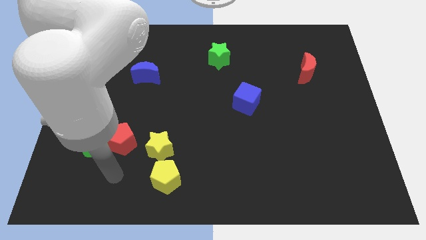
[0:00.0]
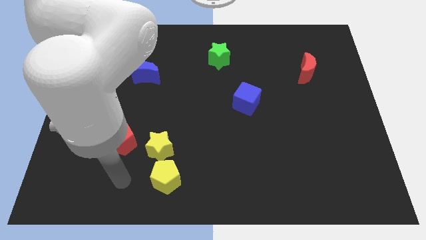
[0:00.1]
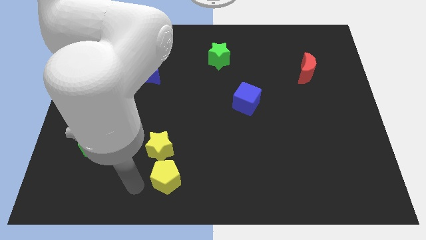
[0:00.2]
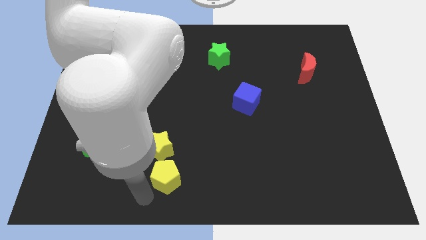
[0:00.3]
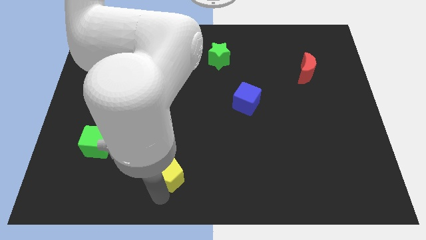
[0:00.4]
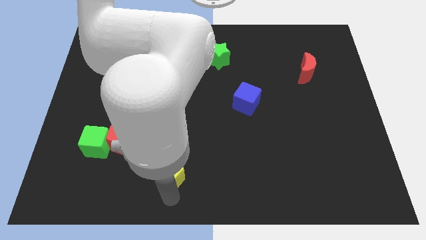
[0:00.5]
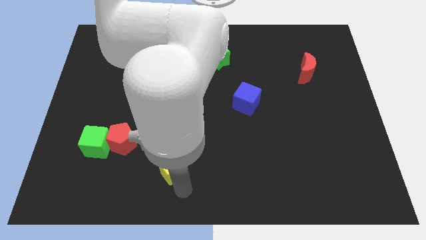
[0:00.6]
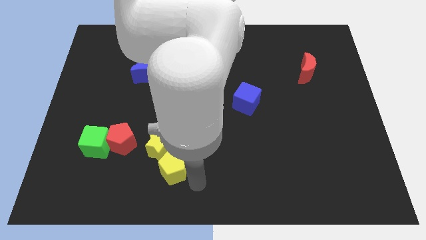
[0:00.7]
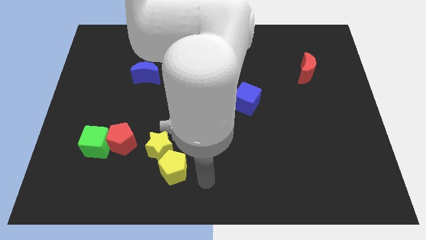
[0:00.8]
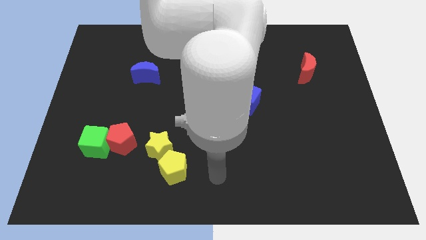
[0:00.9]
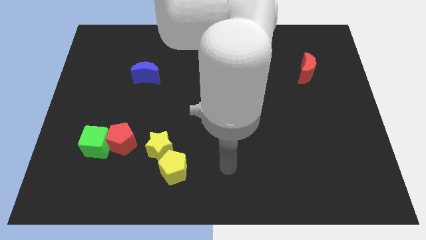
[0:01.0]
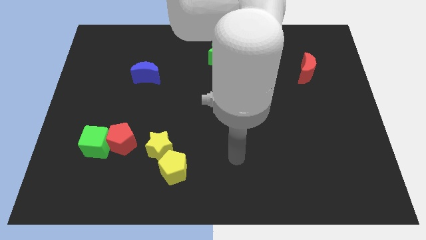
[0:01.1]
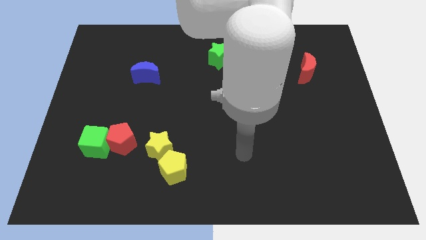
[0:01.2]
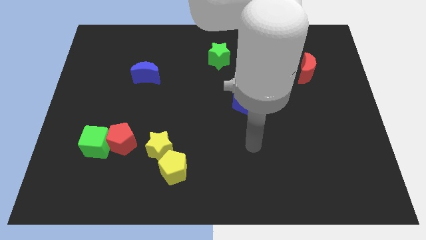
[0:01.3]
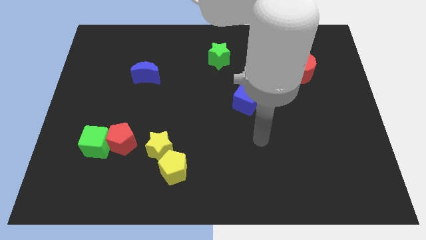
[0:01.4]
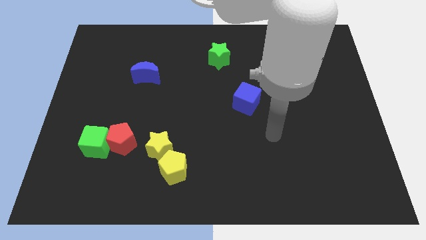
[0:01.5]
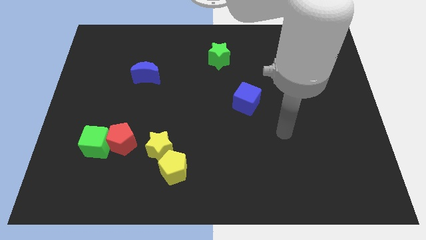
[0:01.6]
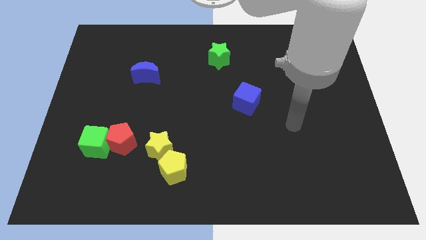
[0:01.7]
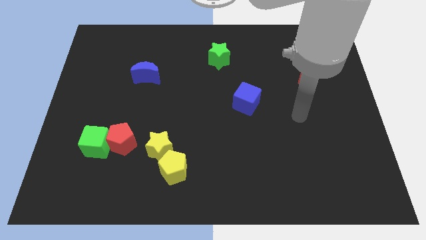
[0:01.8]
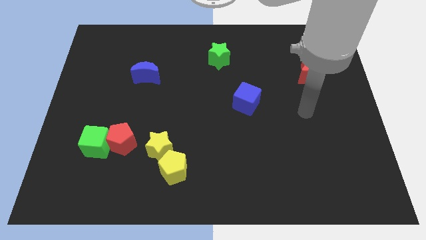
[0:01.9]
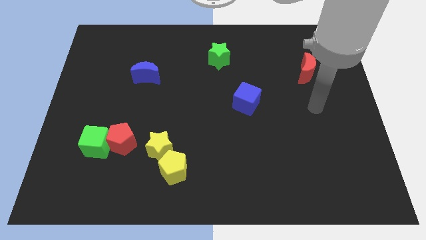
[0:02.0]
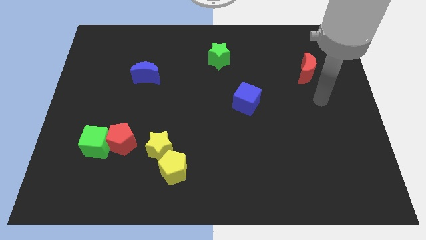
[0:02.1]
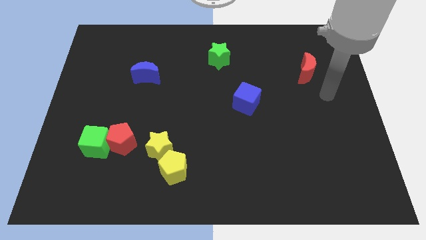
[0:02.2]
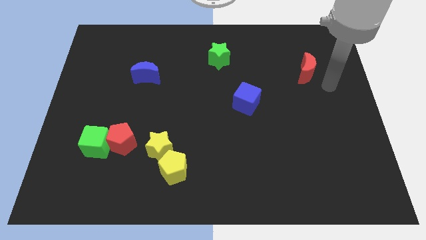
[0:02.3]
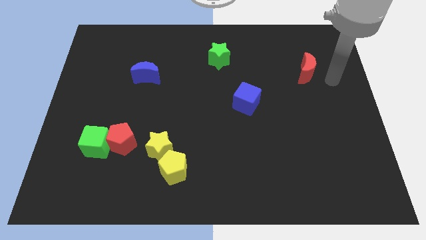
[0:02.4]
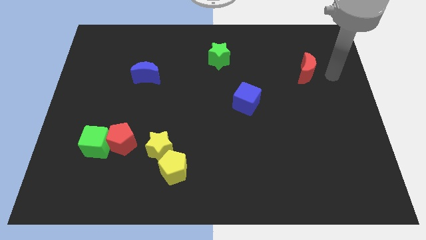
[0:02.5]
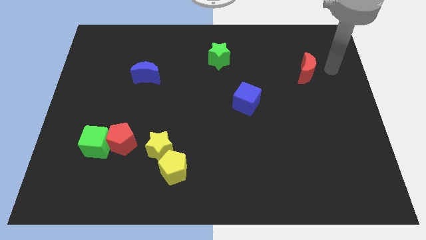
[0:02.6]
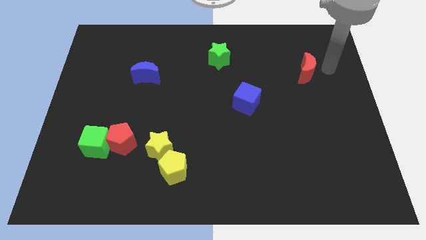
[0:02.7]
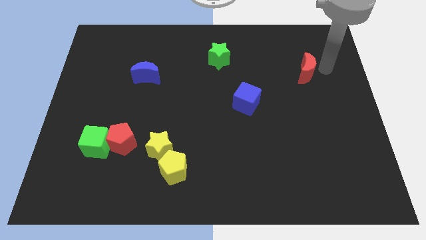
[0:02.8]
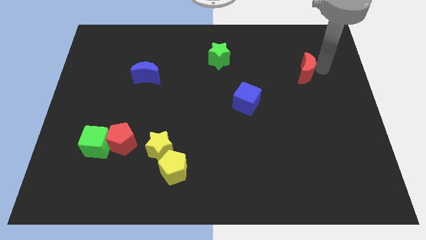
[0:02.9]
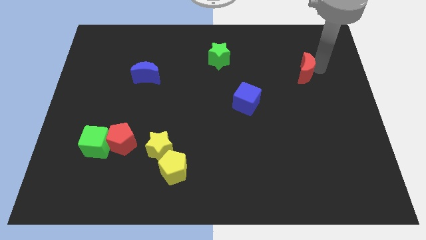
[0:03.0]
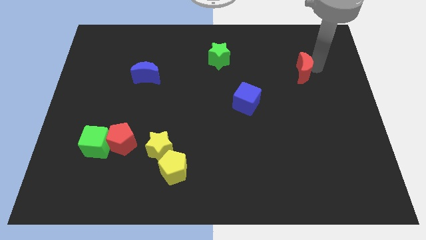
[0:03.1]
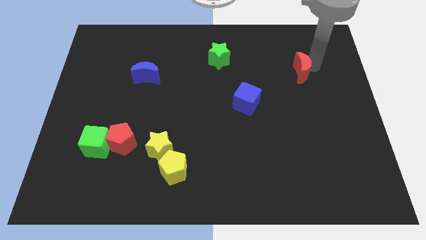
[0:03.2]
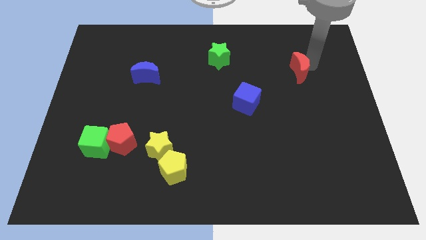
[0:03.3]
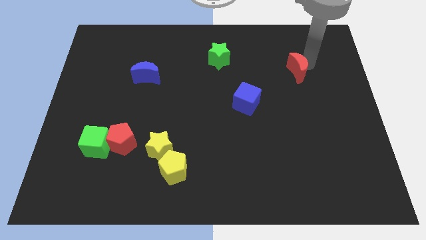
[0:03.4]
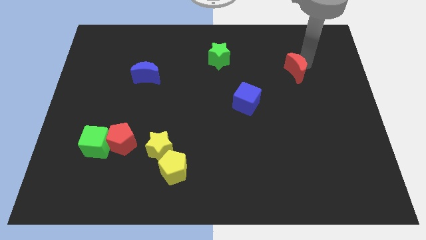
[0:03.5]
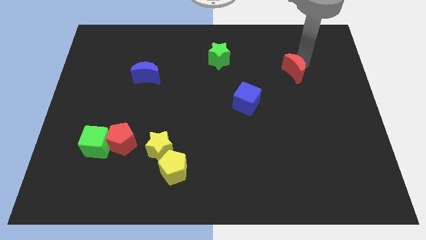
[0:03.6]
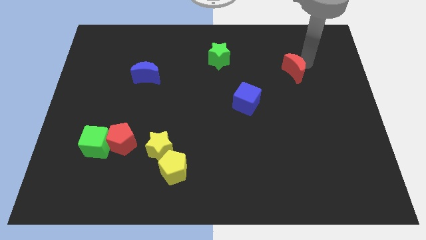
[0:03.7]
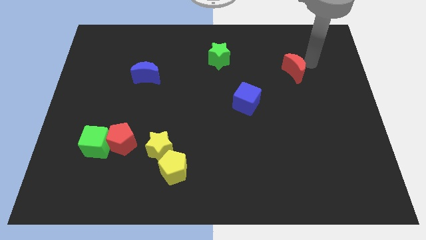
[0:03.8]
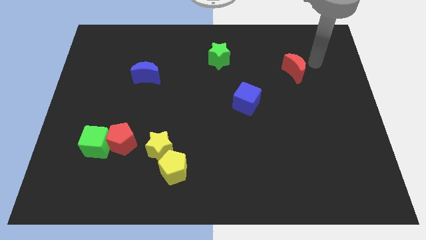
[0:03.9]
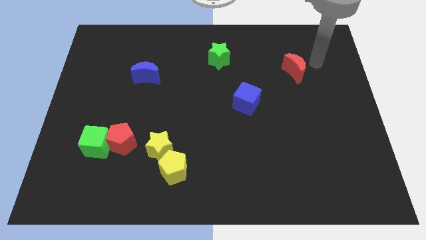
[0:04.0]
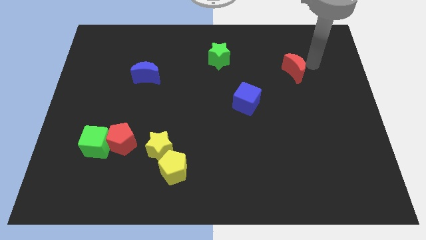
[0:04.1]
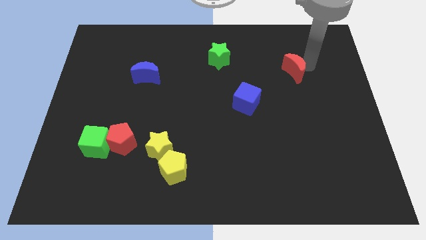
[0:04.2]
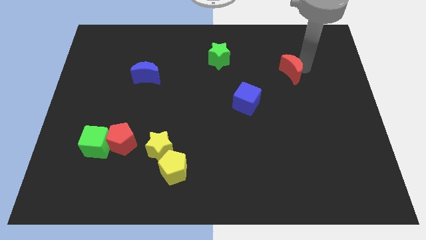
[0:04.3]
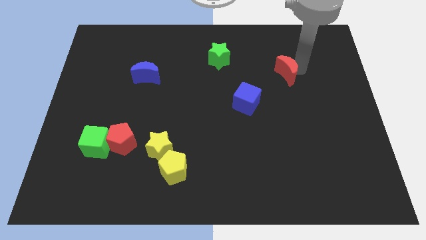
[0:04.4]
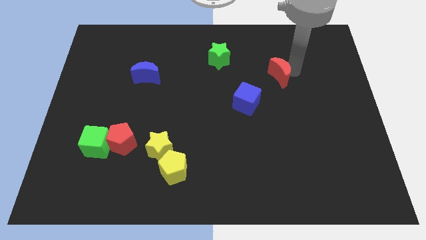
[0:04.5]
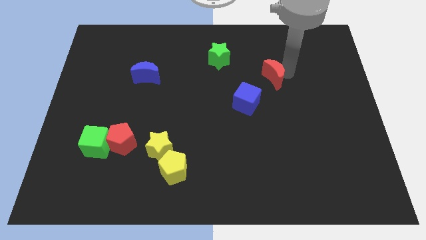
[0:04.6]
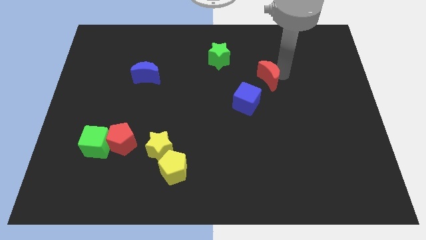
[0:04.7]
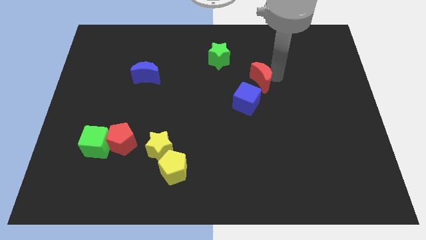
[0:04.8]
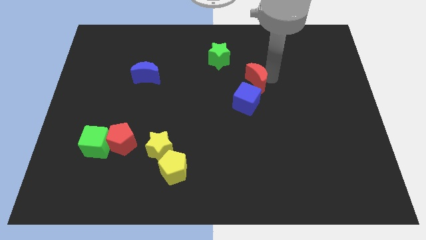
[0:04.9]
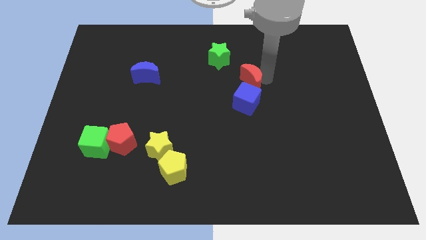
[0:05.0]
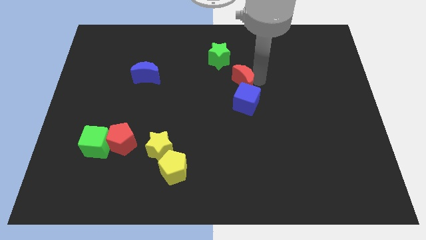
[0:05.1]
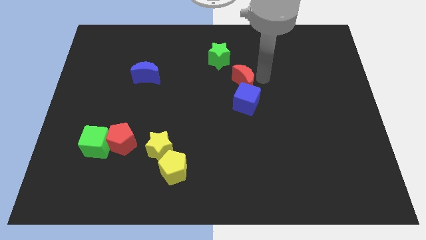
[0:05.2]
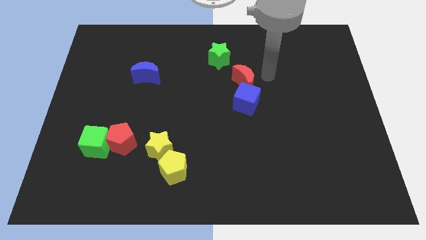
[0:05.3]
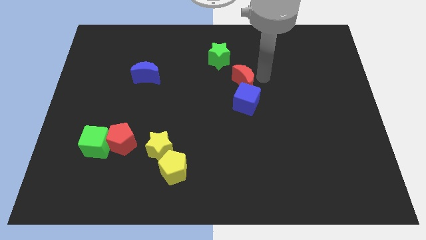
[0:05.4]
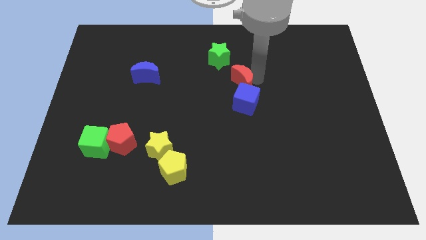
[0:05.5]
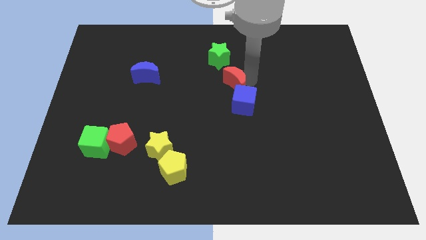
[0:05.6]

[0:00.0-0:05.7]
put the red moon to the bottom side of the green star

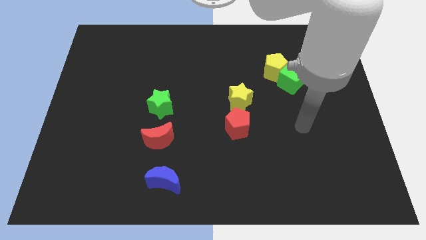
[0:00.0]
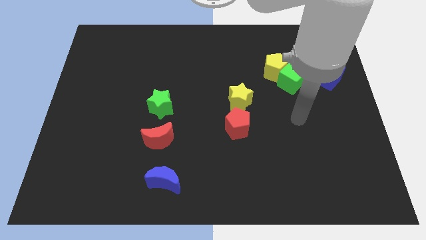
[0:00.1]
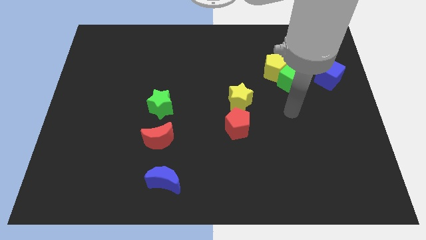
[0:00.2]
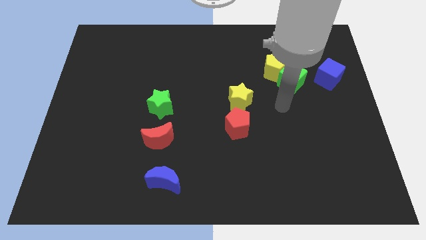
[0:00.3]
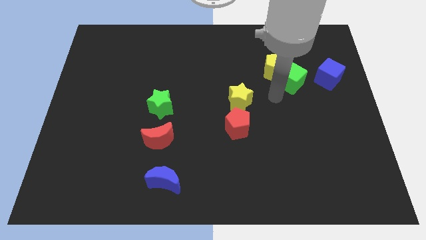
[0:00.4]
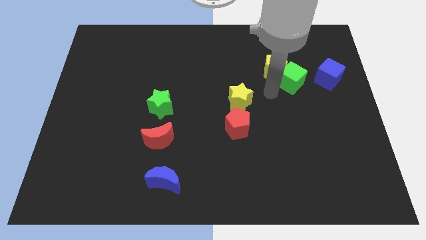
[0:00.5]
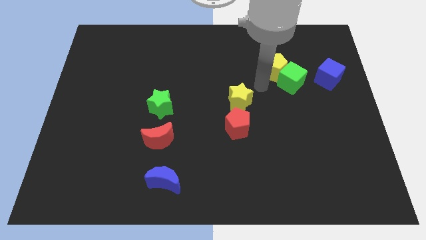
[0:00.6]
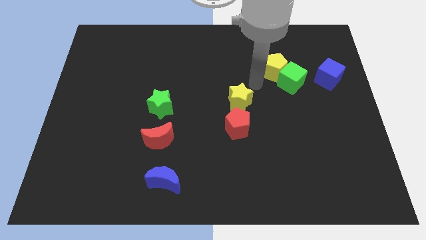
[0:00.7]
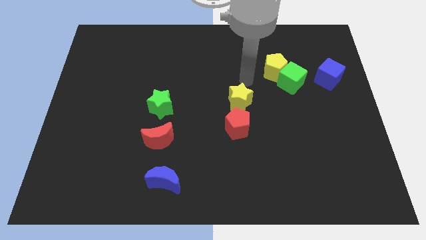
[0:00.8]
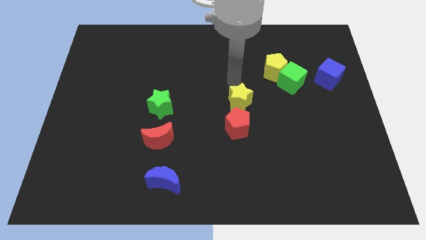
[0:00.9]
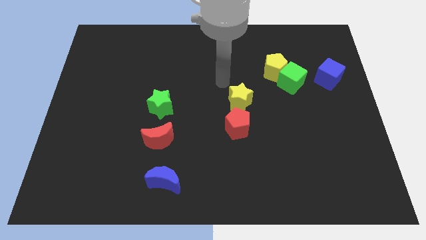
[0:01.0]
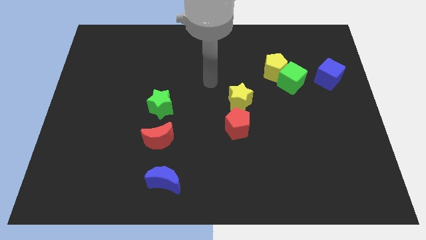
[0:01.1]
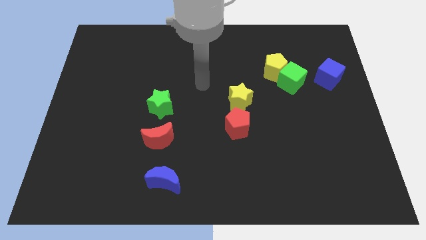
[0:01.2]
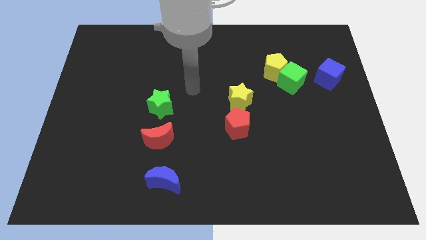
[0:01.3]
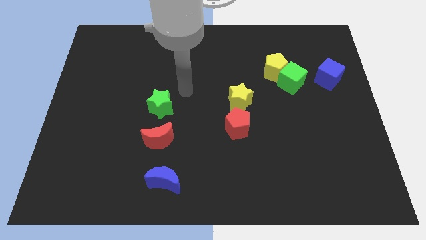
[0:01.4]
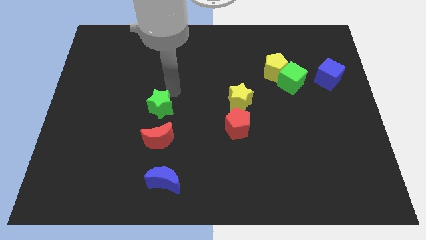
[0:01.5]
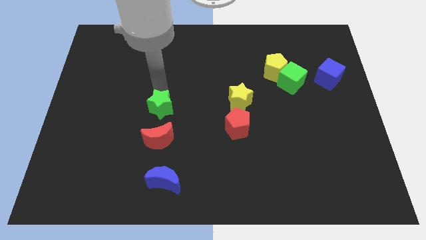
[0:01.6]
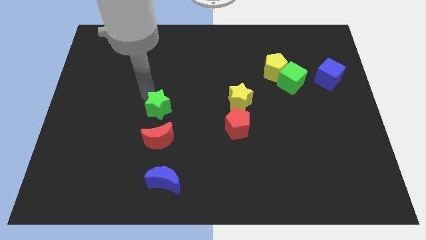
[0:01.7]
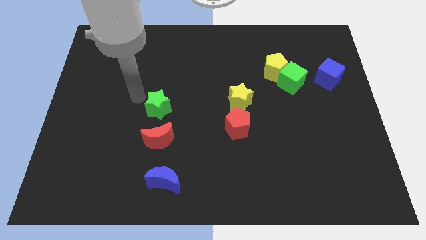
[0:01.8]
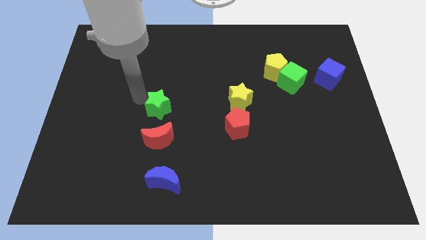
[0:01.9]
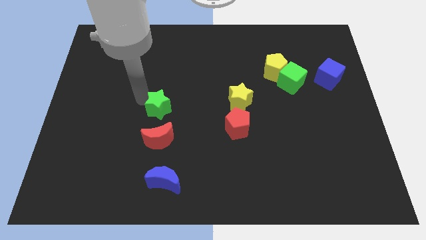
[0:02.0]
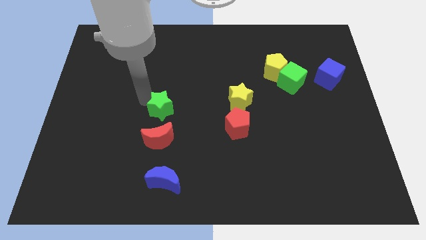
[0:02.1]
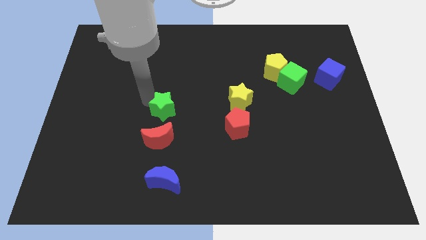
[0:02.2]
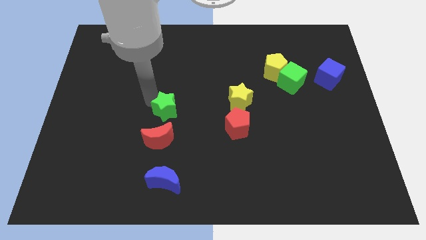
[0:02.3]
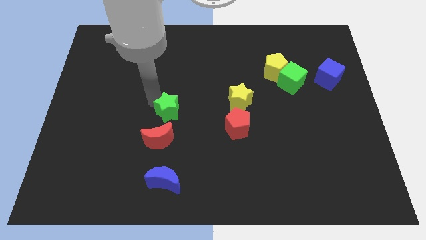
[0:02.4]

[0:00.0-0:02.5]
move the green star diagonally up and to the right of the red moon
